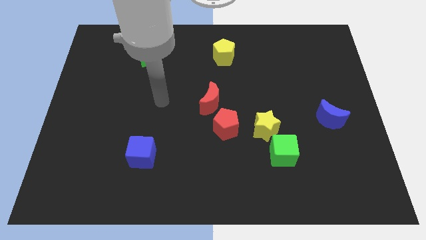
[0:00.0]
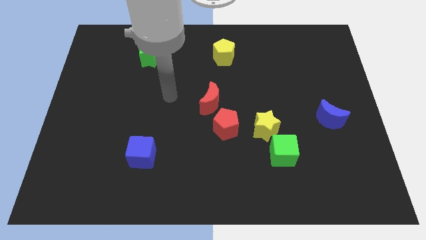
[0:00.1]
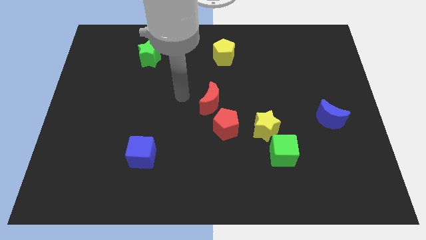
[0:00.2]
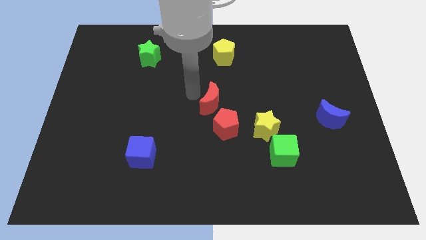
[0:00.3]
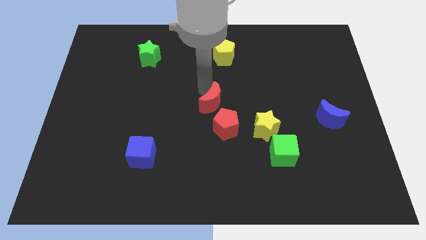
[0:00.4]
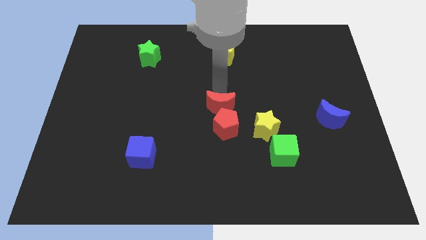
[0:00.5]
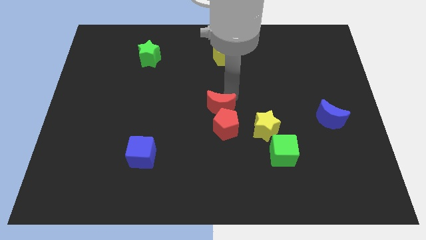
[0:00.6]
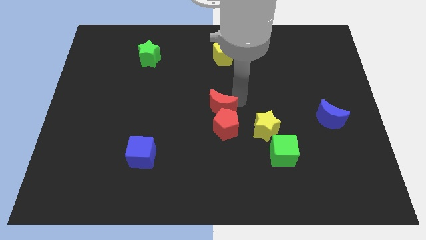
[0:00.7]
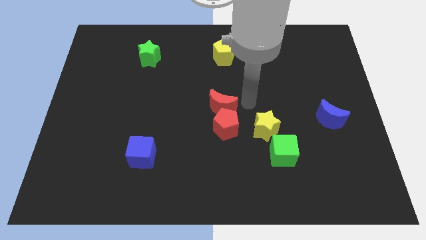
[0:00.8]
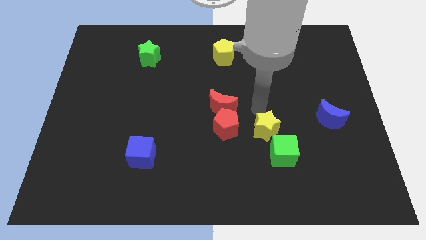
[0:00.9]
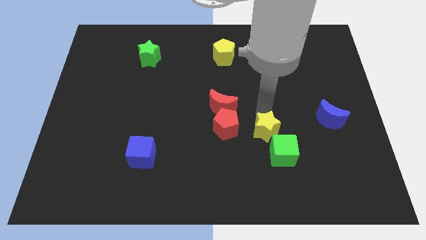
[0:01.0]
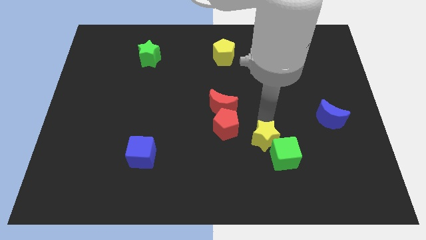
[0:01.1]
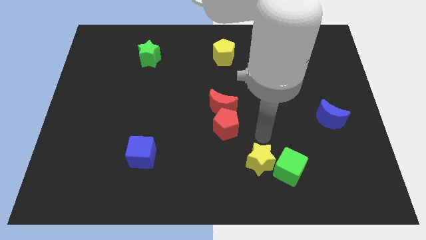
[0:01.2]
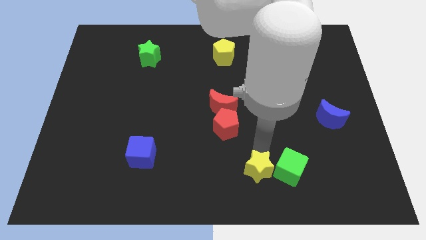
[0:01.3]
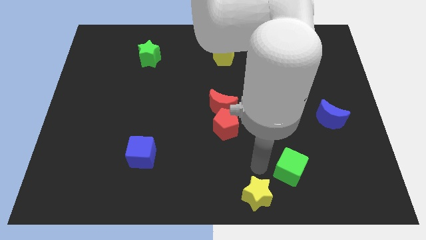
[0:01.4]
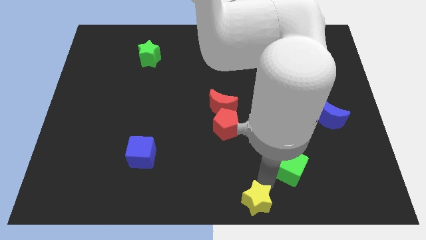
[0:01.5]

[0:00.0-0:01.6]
pull the green cube apart from the yellow star

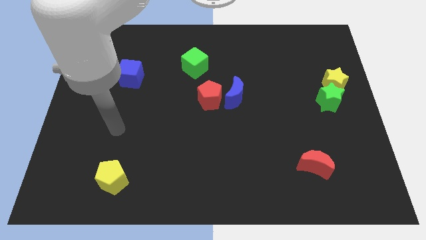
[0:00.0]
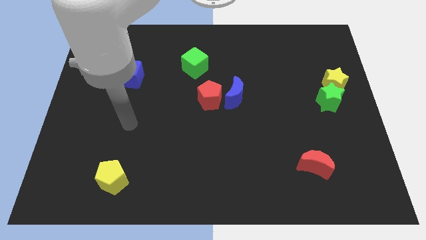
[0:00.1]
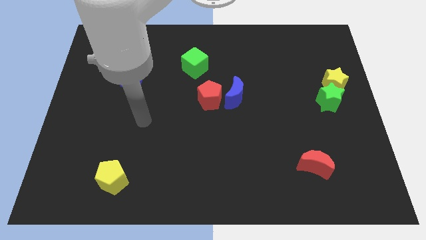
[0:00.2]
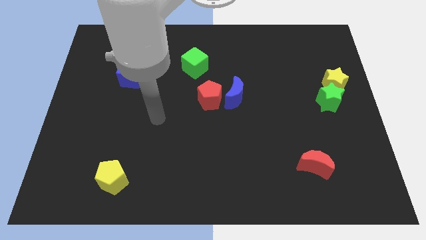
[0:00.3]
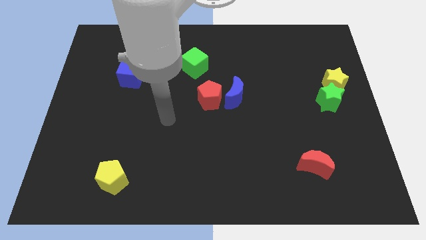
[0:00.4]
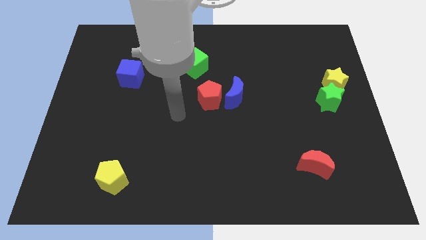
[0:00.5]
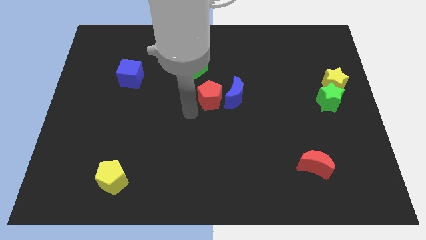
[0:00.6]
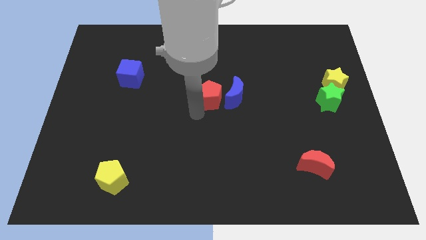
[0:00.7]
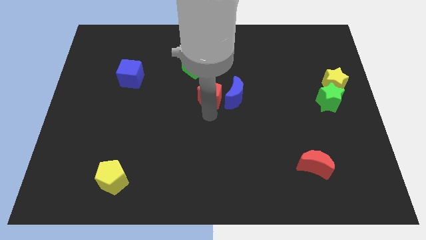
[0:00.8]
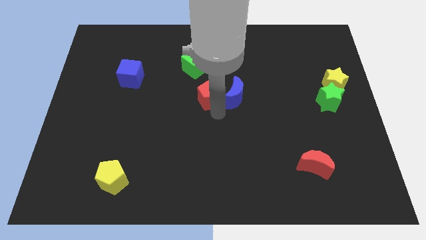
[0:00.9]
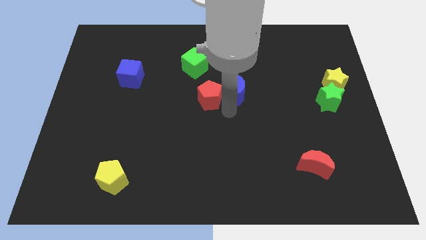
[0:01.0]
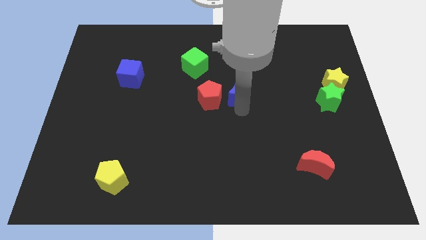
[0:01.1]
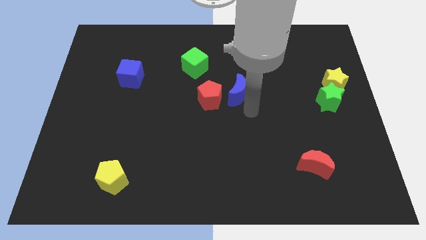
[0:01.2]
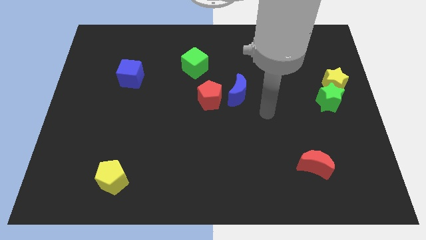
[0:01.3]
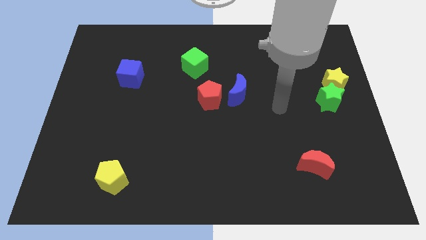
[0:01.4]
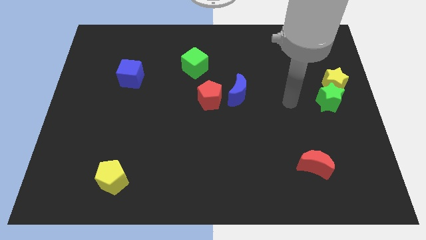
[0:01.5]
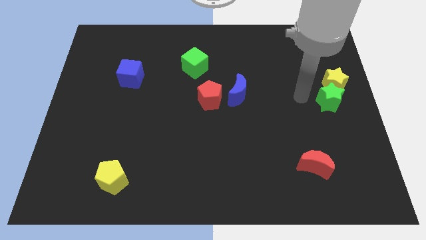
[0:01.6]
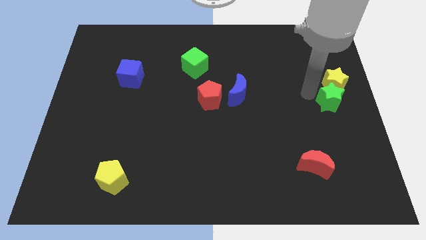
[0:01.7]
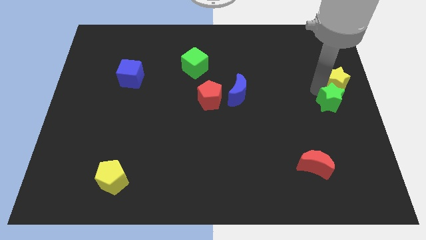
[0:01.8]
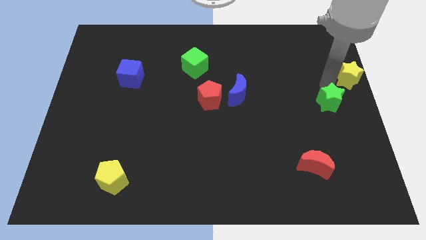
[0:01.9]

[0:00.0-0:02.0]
move the green star away from the yellow star

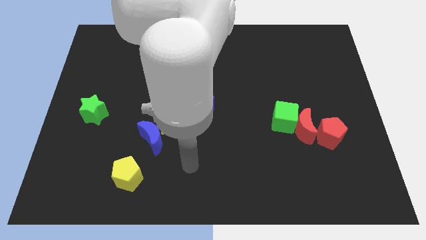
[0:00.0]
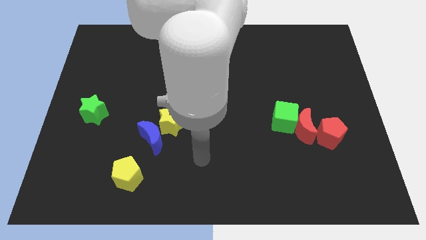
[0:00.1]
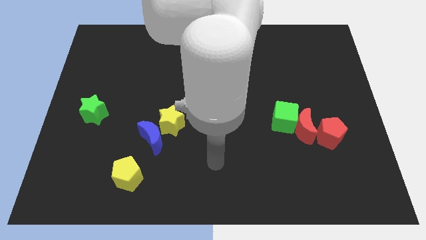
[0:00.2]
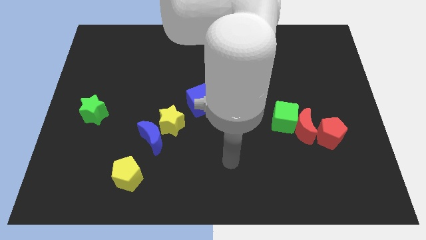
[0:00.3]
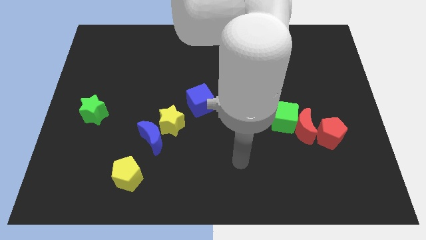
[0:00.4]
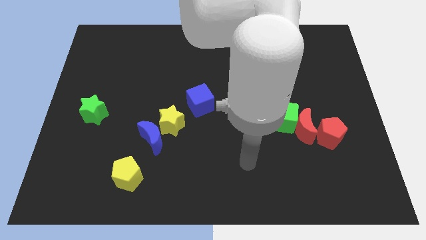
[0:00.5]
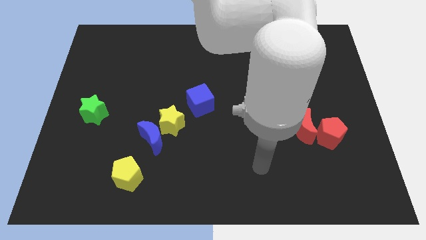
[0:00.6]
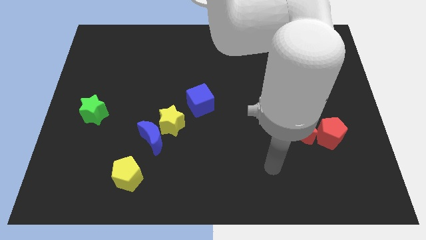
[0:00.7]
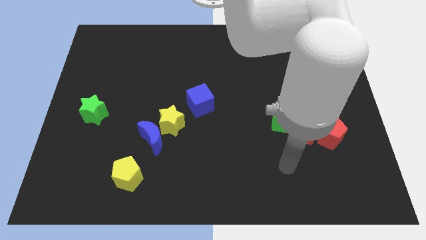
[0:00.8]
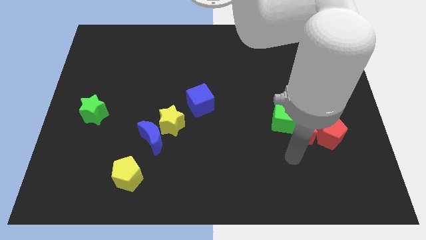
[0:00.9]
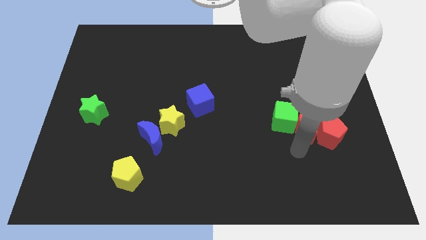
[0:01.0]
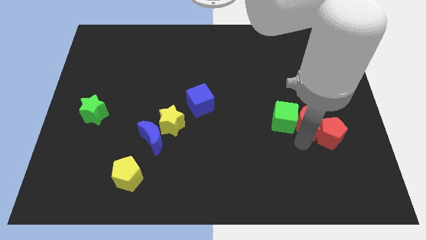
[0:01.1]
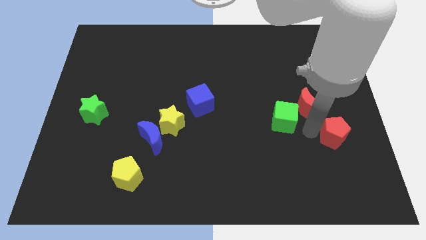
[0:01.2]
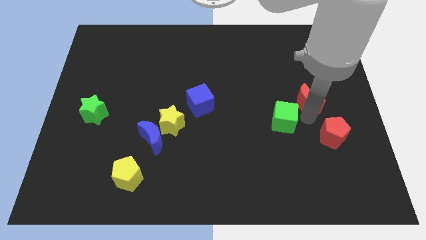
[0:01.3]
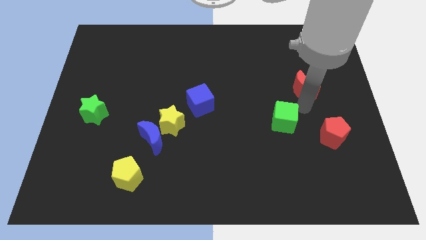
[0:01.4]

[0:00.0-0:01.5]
separate the green cube from the red moon

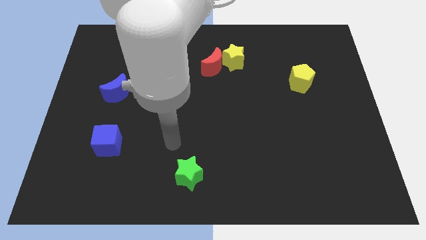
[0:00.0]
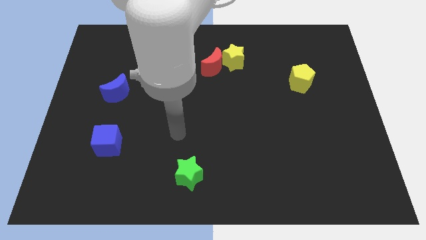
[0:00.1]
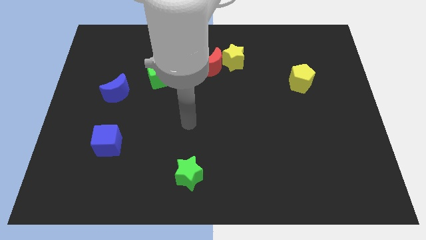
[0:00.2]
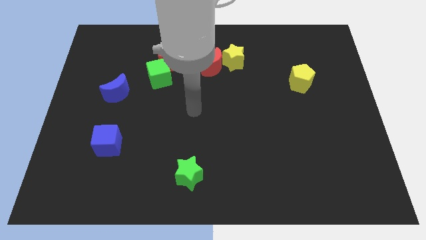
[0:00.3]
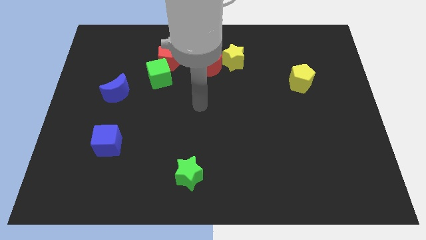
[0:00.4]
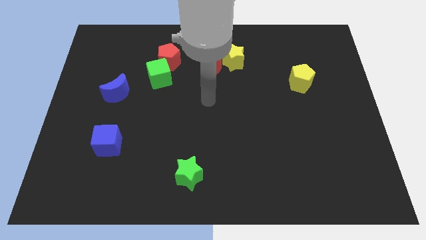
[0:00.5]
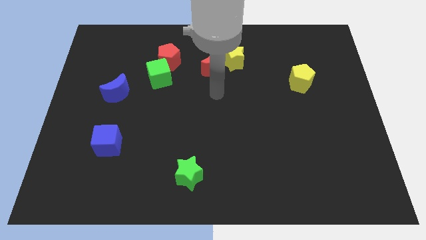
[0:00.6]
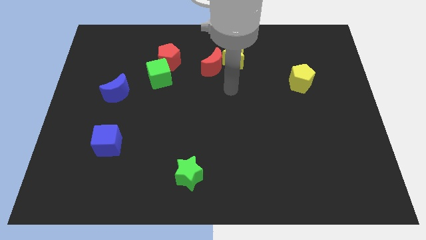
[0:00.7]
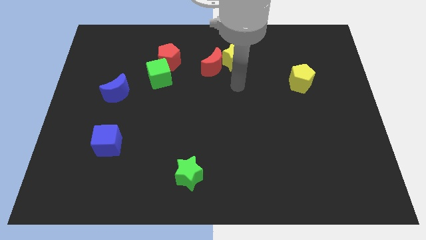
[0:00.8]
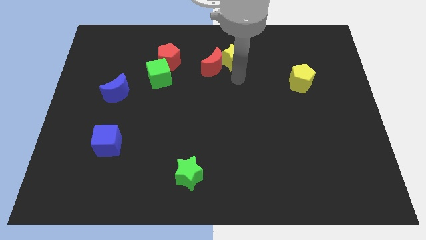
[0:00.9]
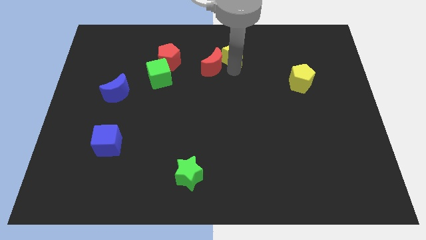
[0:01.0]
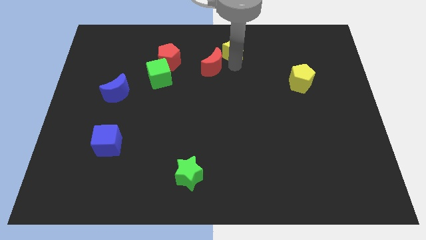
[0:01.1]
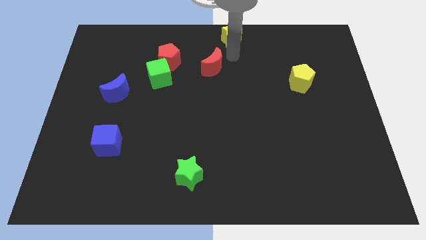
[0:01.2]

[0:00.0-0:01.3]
pull the red moon apart from the yellow star

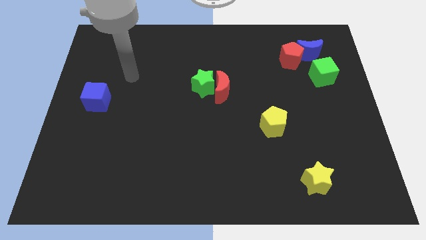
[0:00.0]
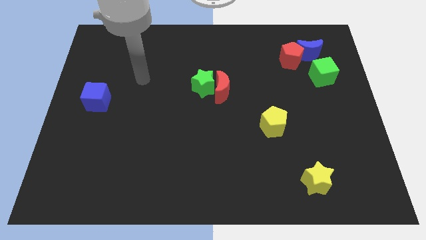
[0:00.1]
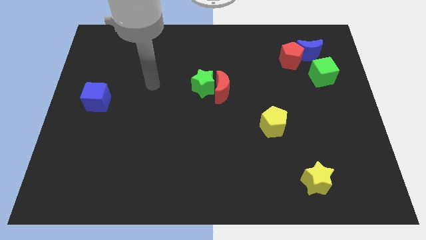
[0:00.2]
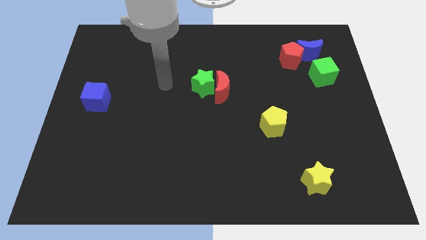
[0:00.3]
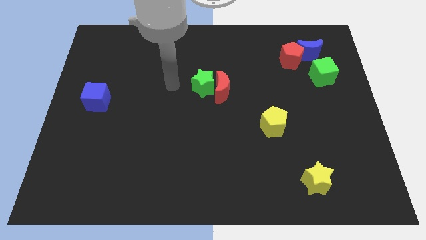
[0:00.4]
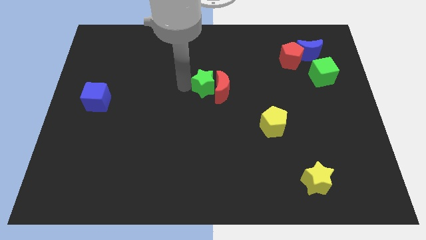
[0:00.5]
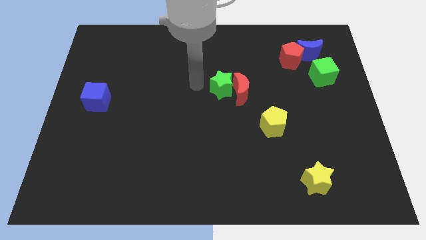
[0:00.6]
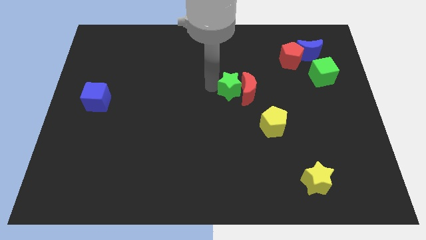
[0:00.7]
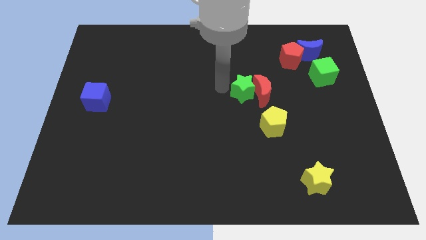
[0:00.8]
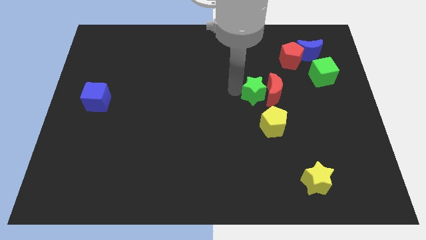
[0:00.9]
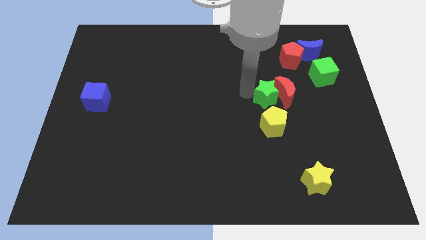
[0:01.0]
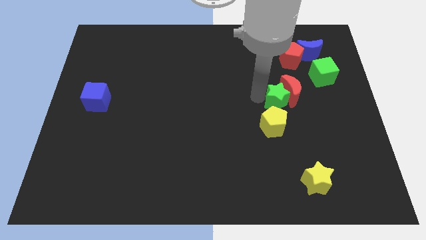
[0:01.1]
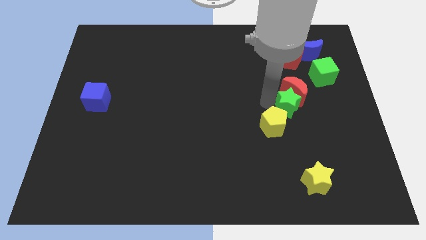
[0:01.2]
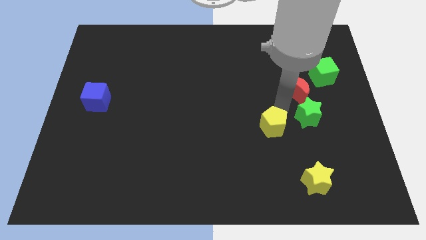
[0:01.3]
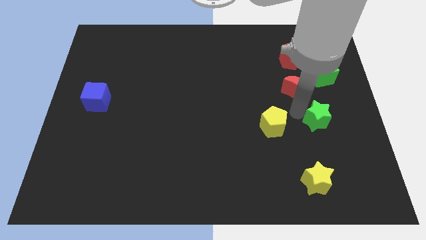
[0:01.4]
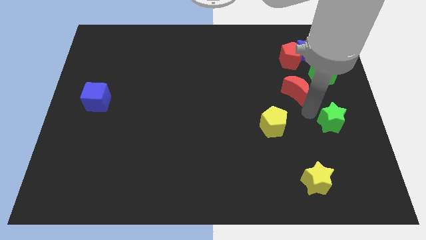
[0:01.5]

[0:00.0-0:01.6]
pull the red moon apart from the green star

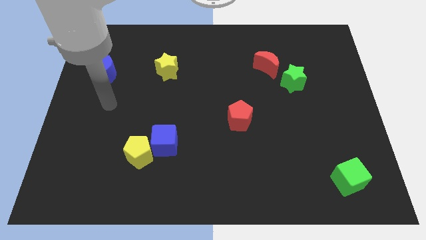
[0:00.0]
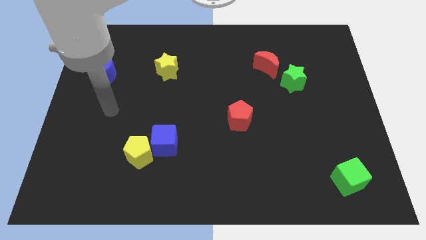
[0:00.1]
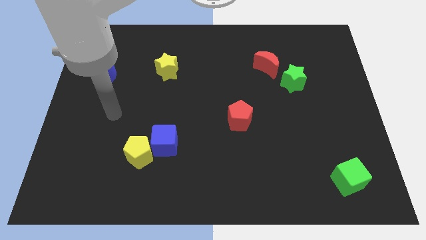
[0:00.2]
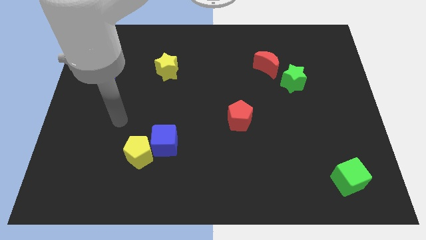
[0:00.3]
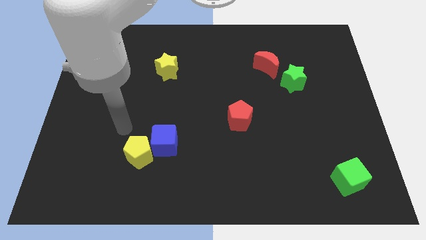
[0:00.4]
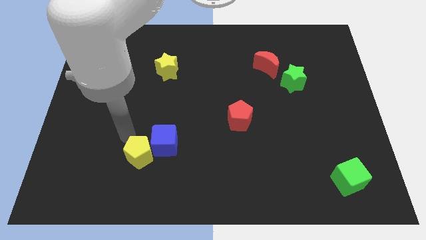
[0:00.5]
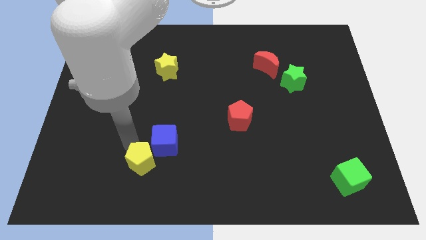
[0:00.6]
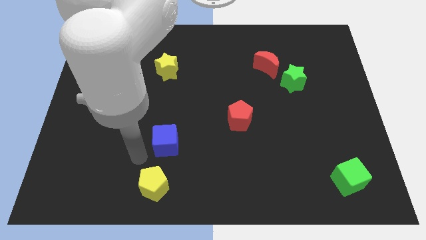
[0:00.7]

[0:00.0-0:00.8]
separate the blue cube from the yellow pentagon

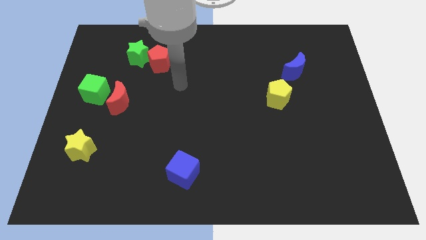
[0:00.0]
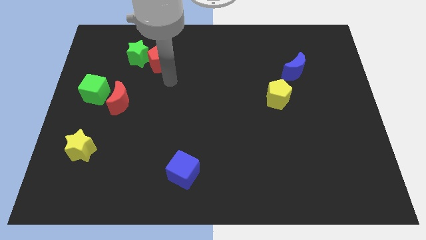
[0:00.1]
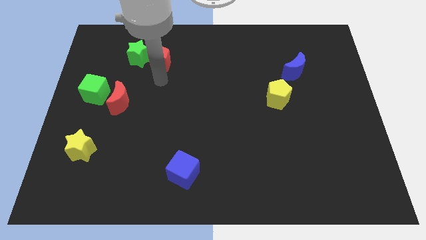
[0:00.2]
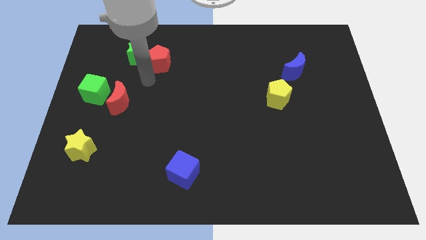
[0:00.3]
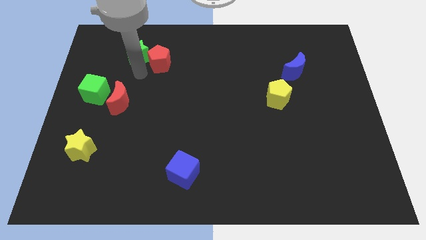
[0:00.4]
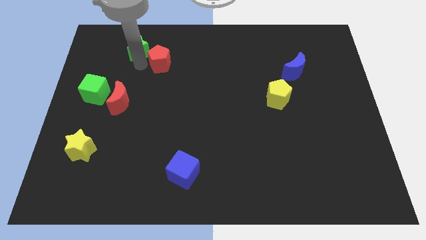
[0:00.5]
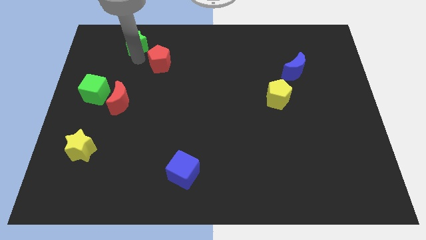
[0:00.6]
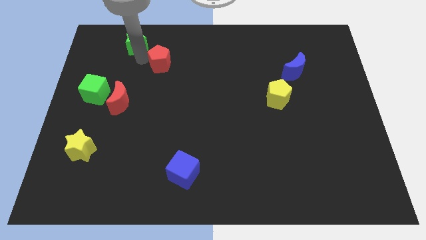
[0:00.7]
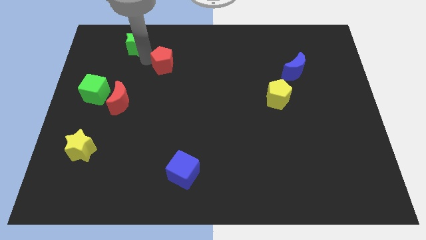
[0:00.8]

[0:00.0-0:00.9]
separate the red pentagon from the green star
